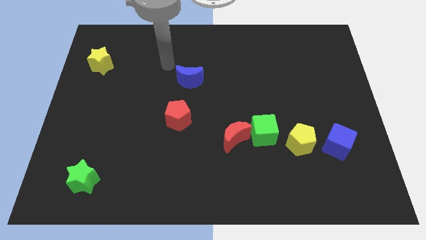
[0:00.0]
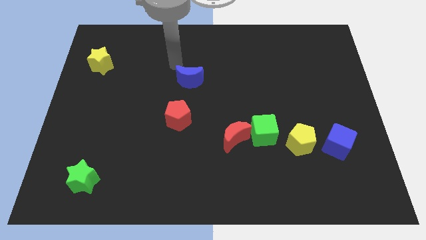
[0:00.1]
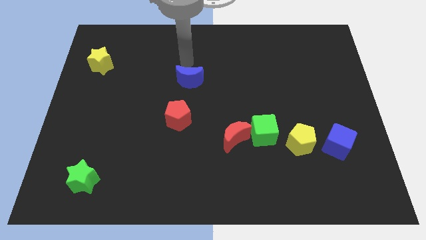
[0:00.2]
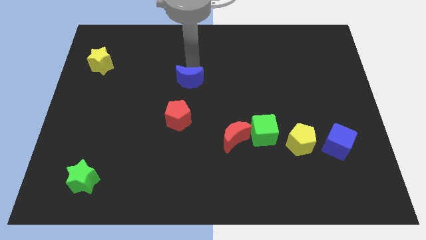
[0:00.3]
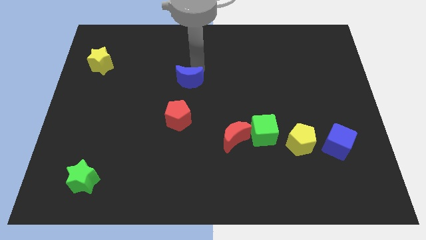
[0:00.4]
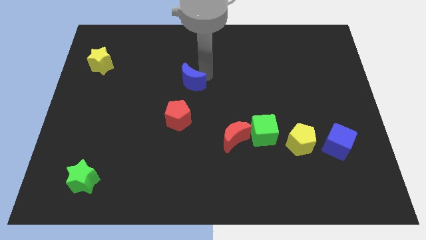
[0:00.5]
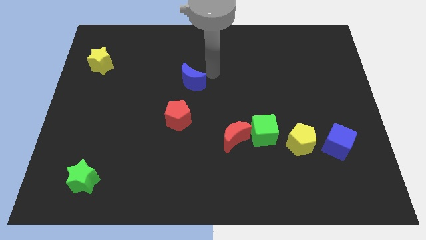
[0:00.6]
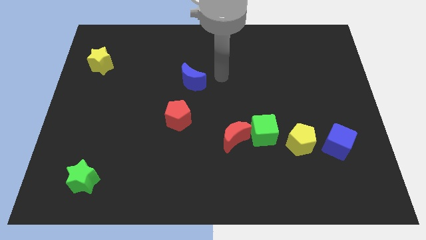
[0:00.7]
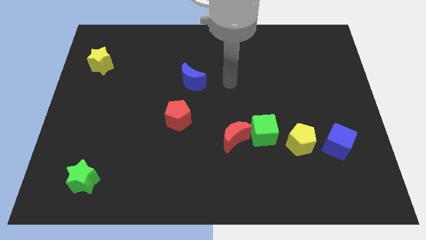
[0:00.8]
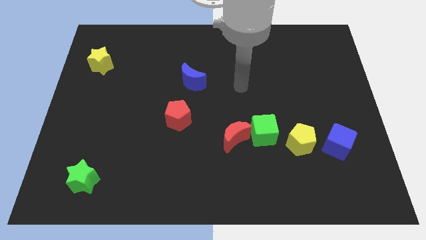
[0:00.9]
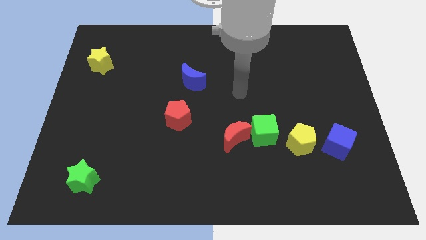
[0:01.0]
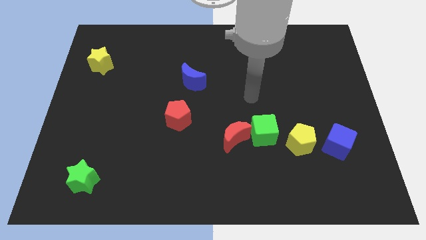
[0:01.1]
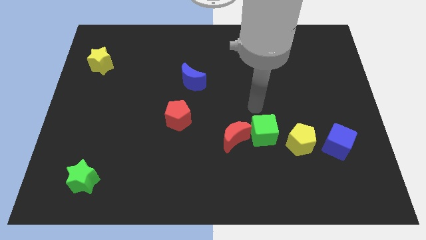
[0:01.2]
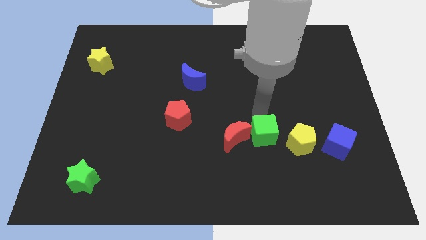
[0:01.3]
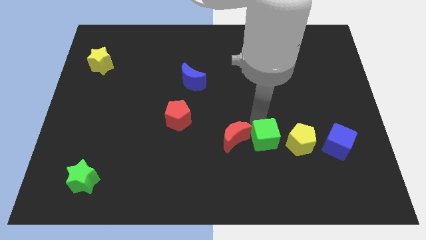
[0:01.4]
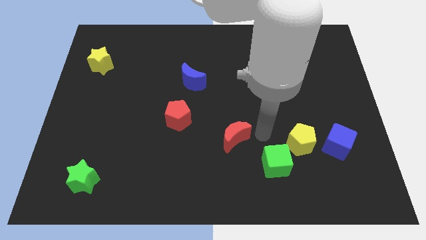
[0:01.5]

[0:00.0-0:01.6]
separate the red moon from the green cube

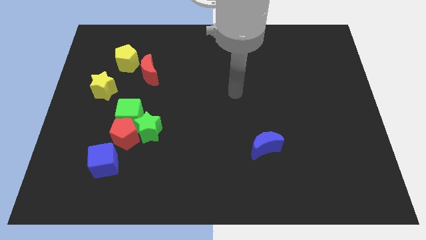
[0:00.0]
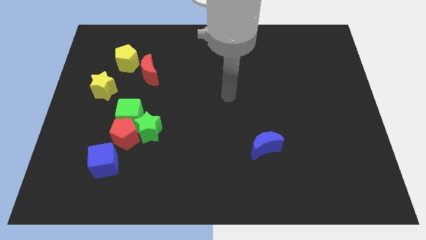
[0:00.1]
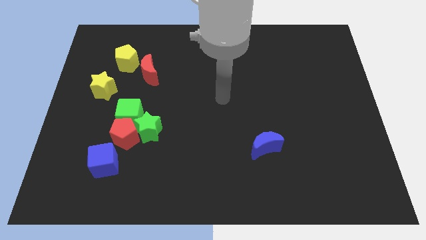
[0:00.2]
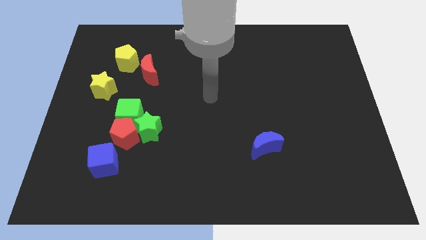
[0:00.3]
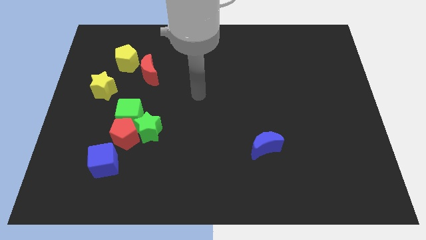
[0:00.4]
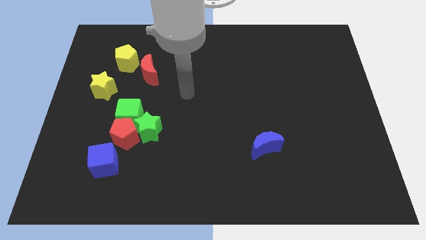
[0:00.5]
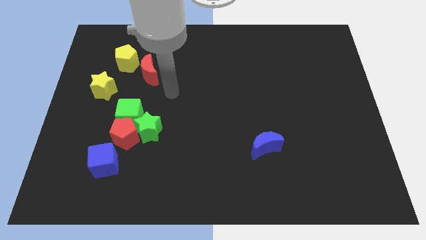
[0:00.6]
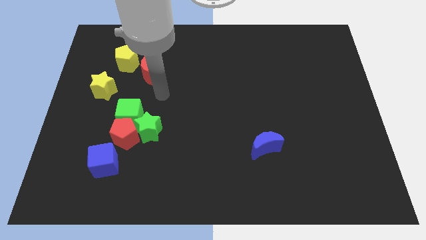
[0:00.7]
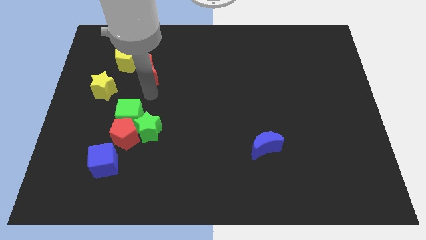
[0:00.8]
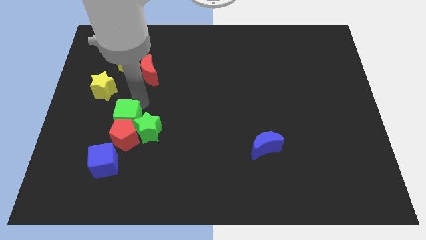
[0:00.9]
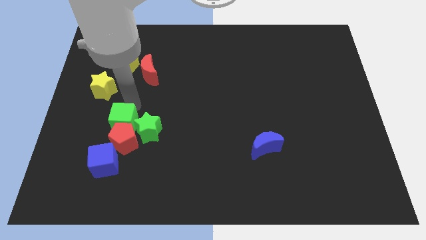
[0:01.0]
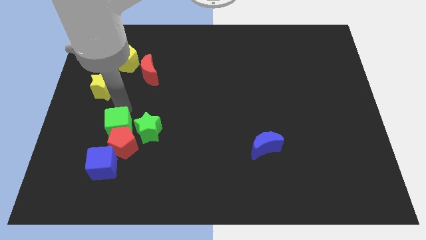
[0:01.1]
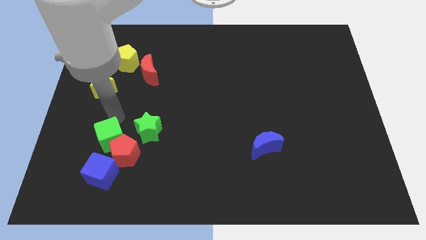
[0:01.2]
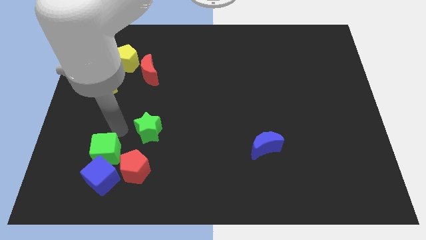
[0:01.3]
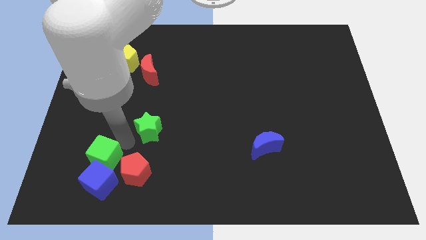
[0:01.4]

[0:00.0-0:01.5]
pull the green star apart from the red pentagon and green cube

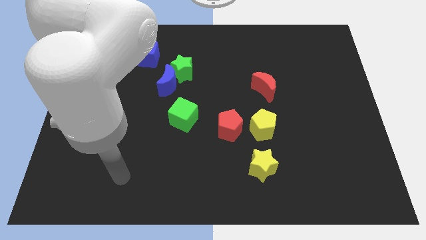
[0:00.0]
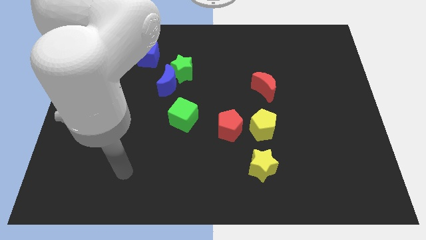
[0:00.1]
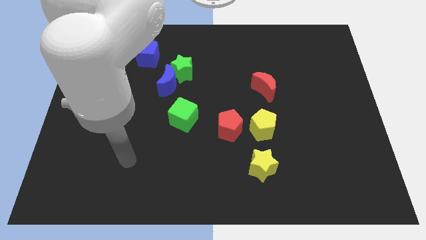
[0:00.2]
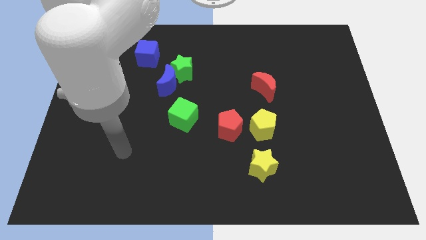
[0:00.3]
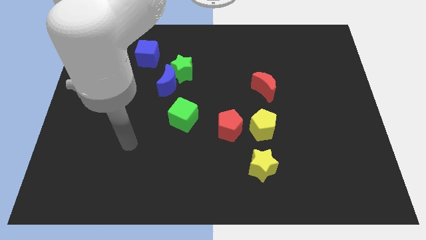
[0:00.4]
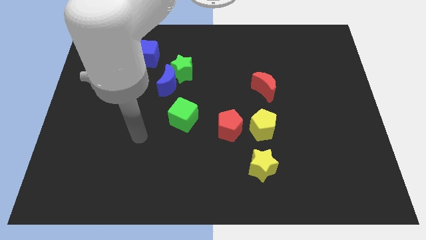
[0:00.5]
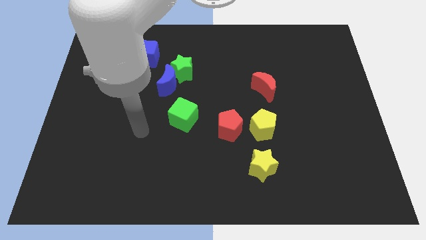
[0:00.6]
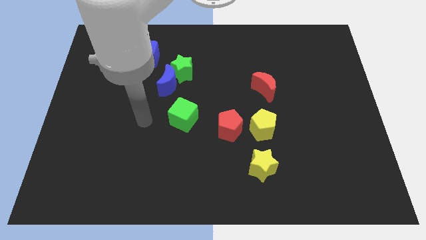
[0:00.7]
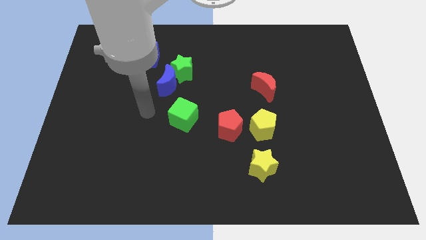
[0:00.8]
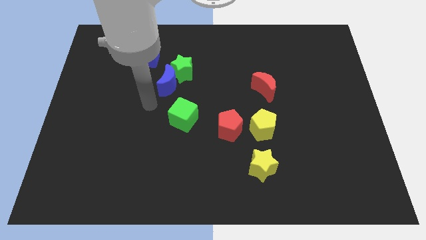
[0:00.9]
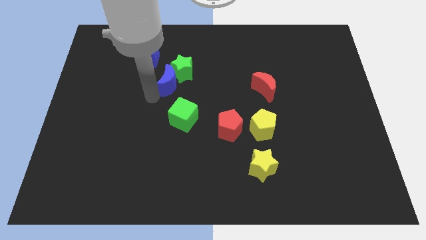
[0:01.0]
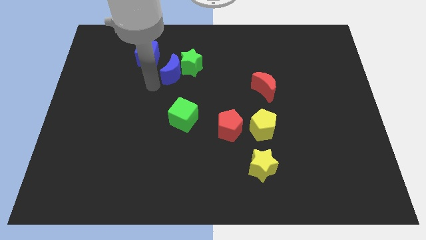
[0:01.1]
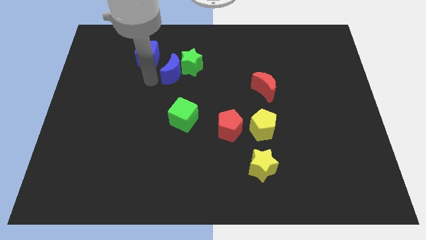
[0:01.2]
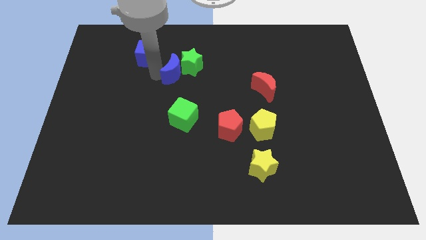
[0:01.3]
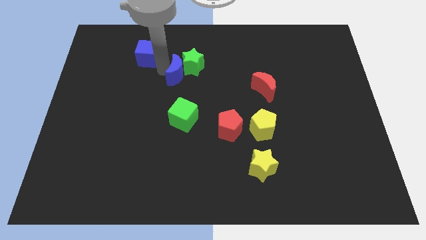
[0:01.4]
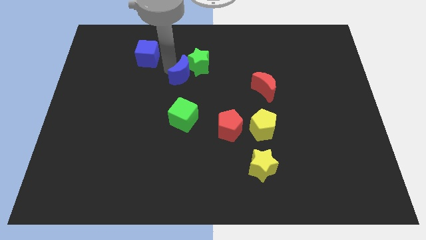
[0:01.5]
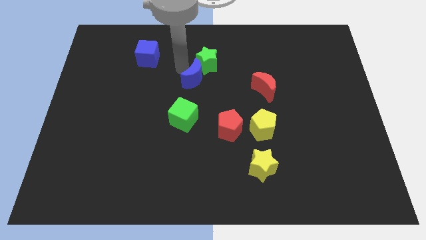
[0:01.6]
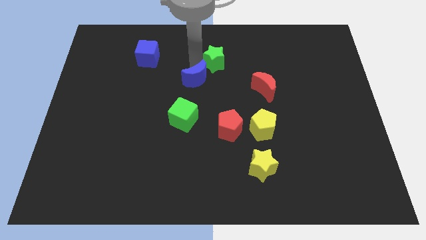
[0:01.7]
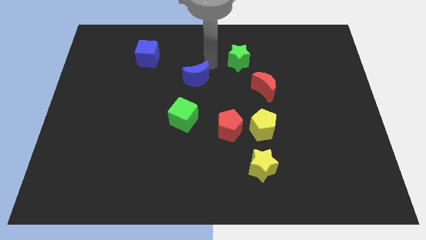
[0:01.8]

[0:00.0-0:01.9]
pull the blue moon apart from the green star

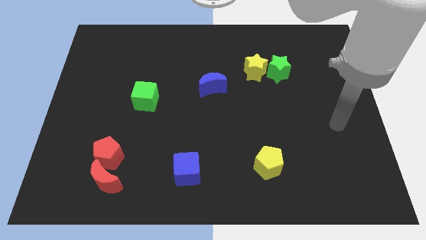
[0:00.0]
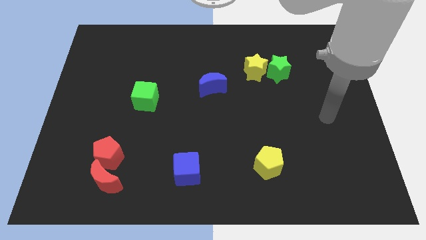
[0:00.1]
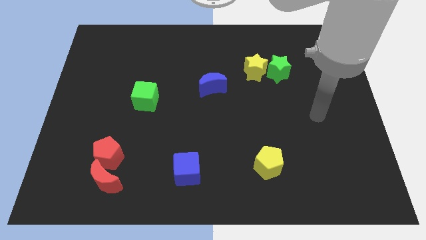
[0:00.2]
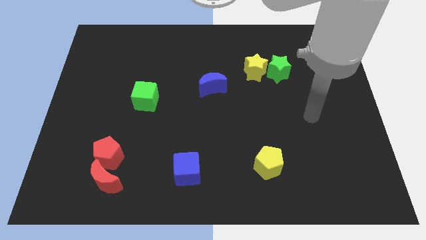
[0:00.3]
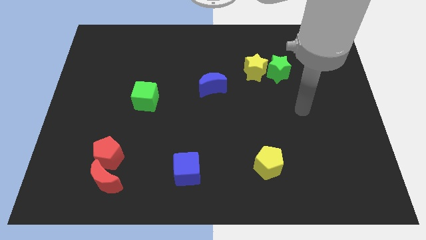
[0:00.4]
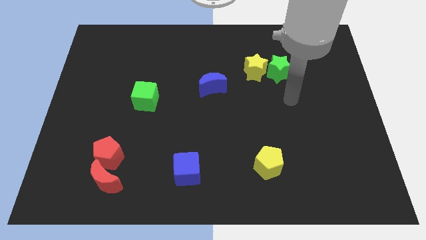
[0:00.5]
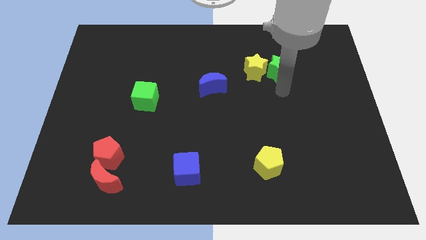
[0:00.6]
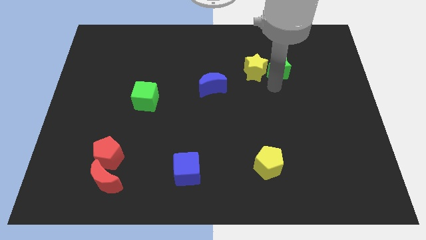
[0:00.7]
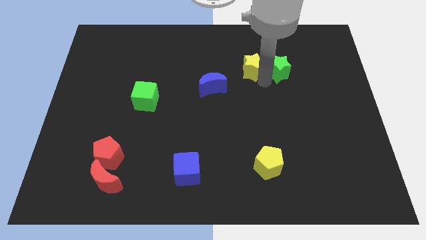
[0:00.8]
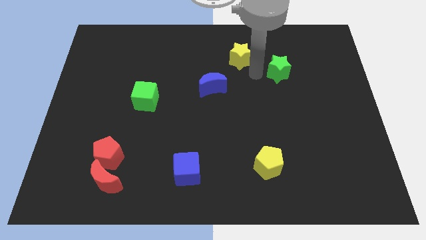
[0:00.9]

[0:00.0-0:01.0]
pull the green star apart from the yellow star

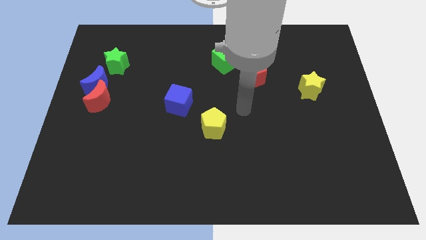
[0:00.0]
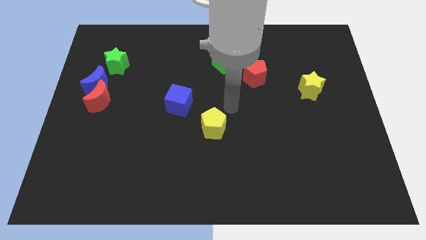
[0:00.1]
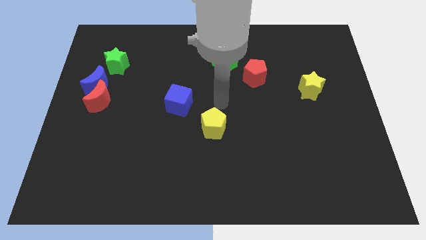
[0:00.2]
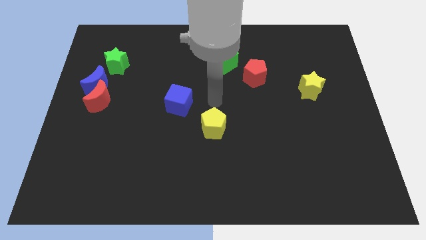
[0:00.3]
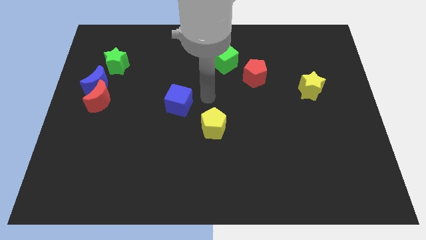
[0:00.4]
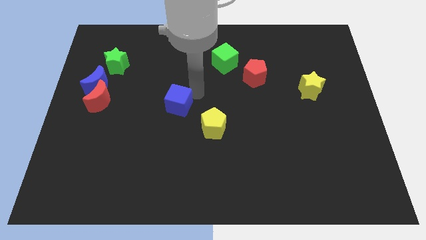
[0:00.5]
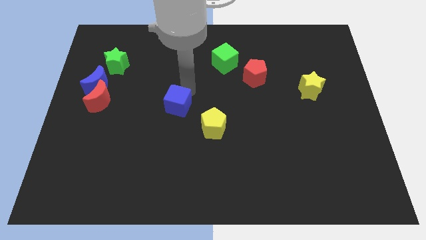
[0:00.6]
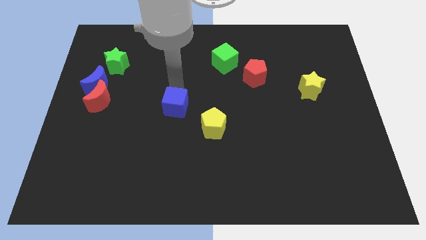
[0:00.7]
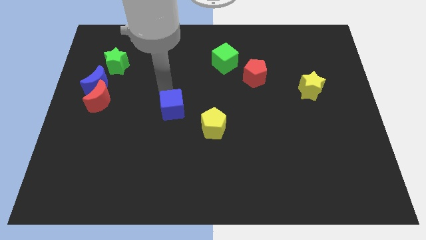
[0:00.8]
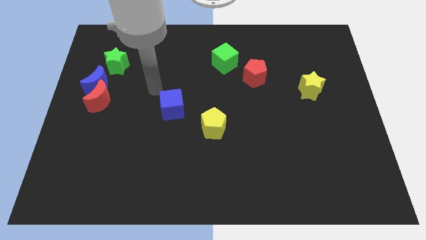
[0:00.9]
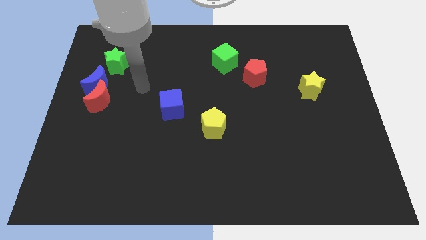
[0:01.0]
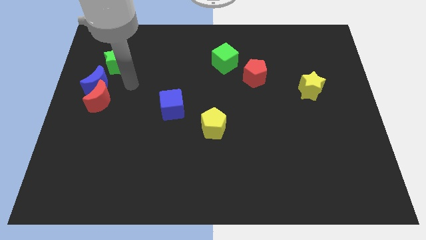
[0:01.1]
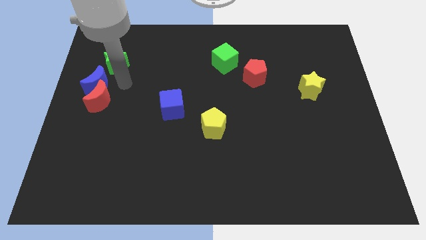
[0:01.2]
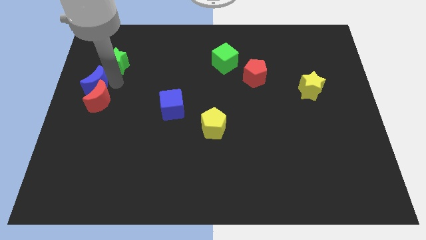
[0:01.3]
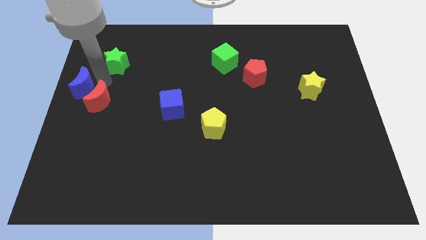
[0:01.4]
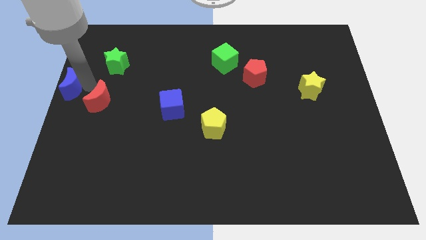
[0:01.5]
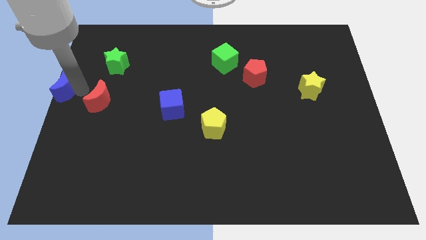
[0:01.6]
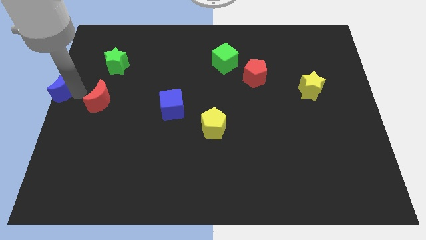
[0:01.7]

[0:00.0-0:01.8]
separate the red moon from the blue moon

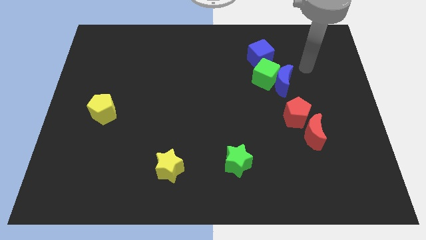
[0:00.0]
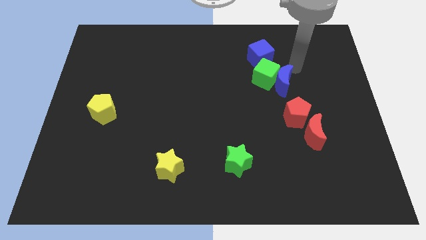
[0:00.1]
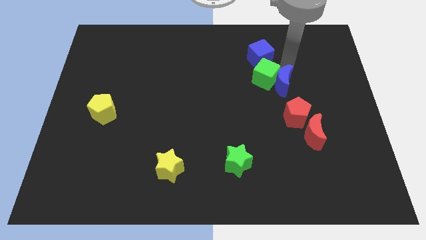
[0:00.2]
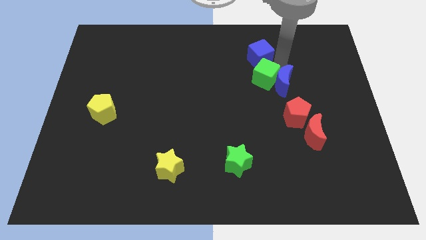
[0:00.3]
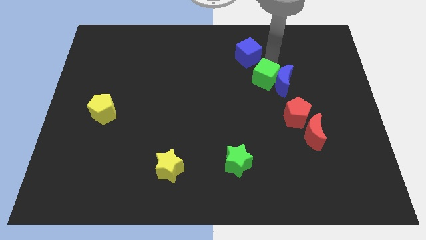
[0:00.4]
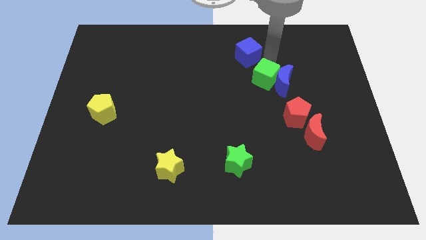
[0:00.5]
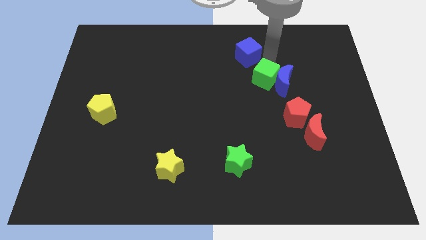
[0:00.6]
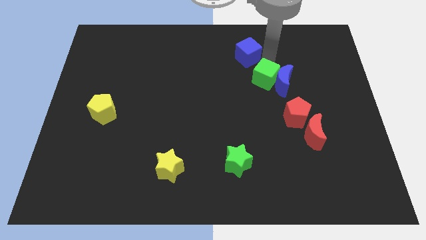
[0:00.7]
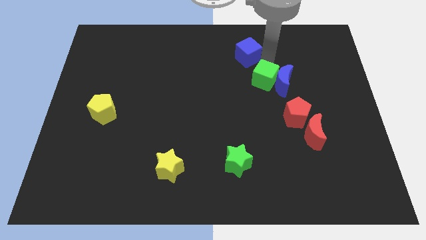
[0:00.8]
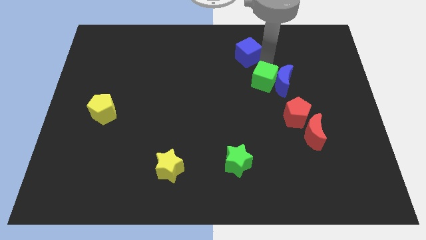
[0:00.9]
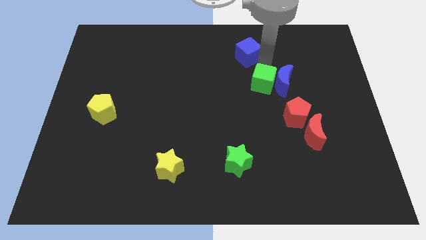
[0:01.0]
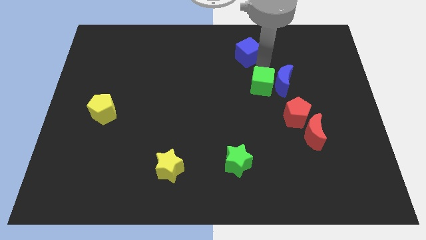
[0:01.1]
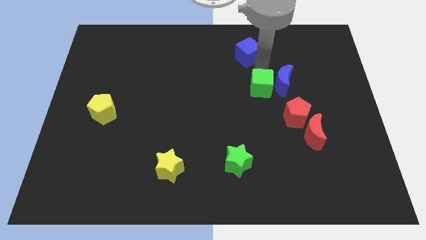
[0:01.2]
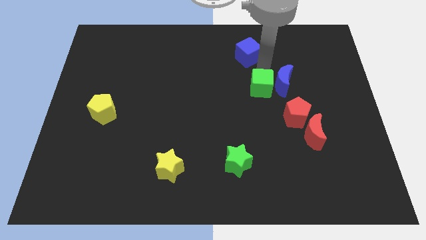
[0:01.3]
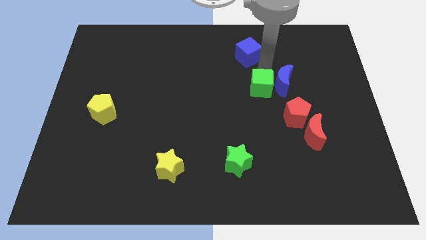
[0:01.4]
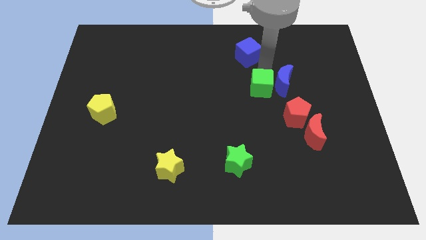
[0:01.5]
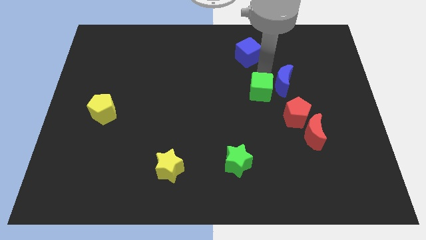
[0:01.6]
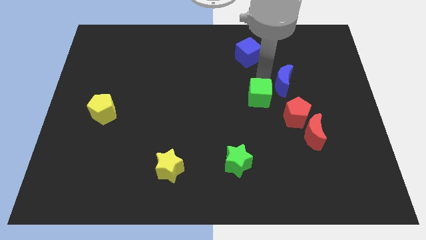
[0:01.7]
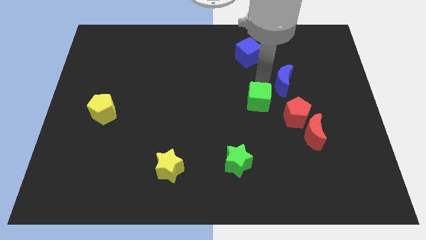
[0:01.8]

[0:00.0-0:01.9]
pull the green cube apart from the blue moon and blue cube
